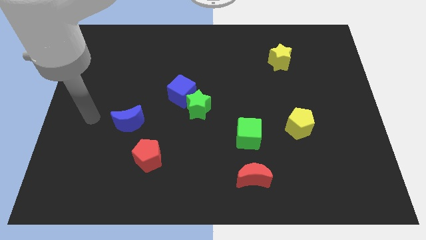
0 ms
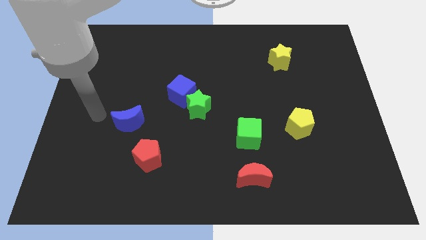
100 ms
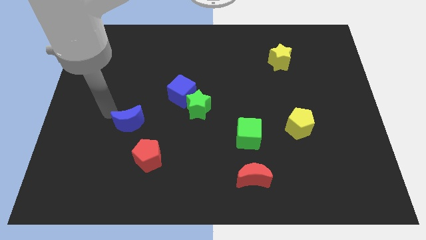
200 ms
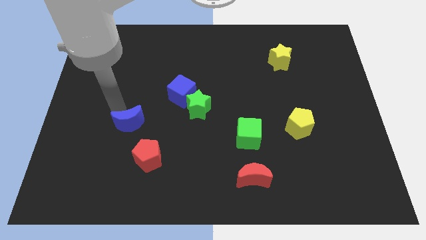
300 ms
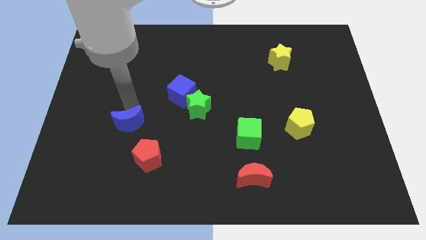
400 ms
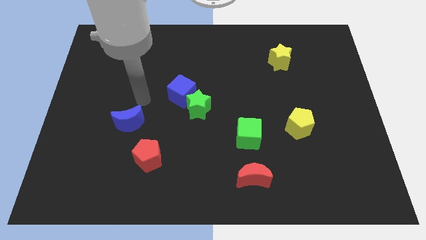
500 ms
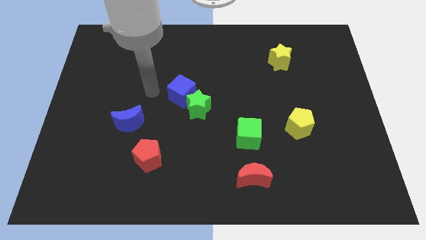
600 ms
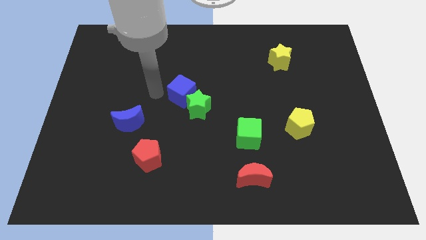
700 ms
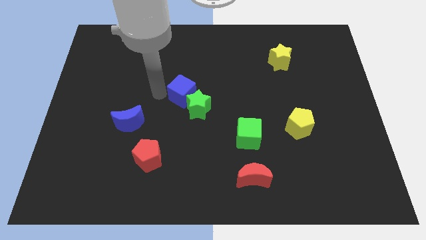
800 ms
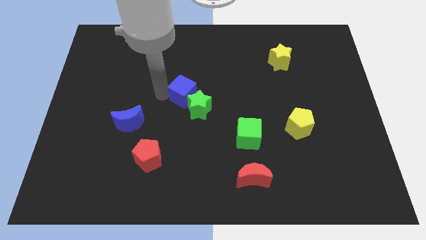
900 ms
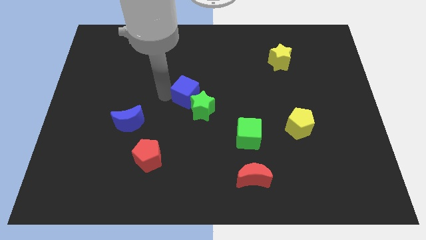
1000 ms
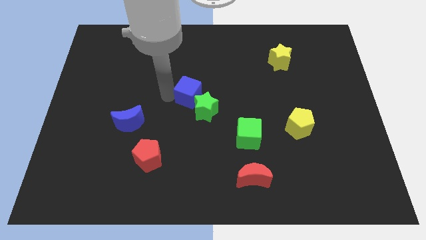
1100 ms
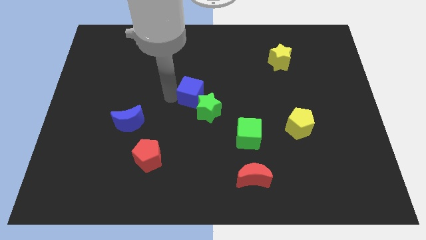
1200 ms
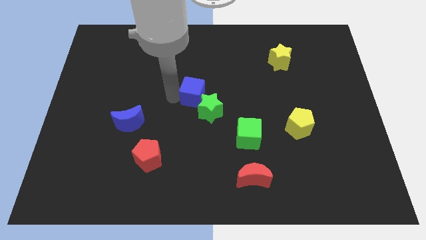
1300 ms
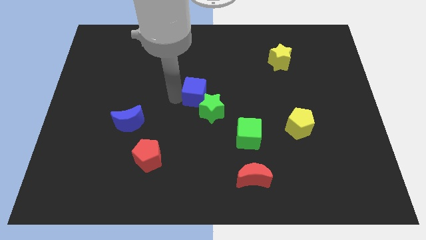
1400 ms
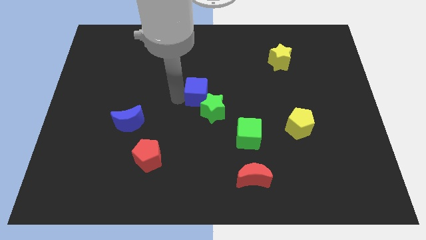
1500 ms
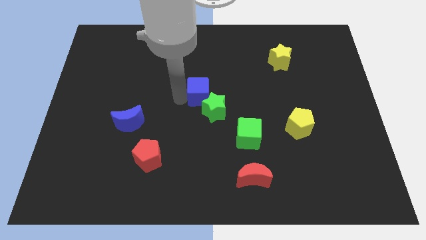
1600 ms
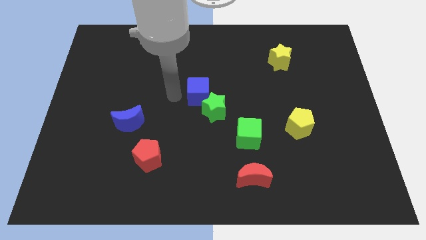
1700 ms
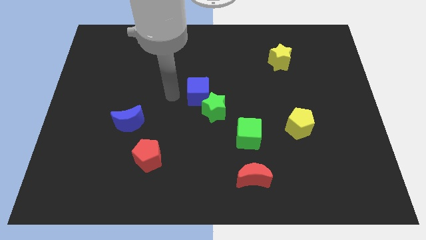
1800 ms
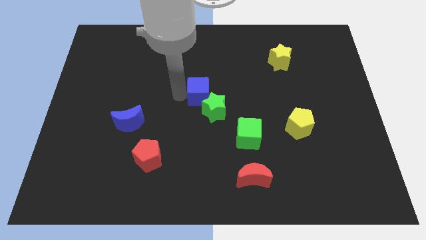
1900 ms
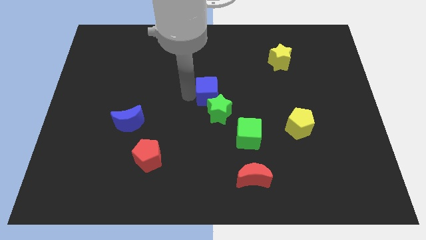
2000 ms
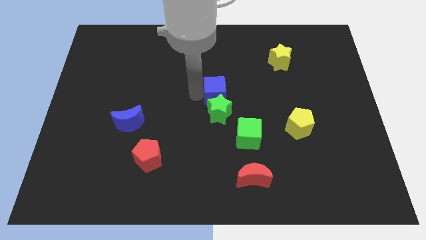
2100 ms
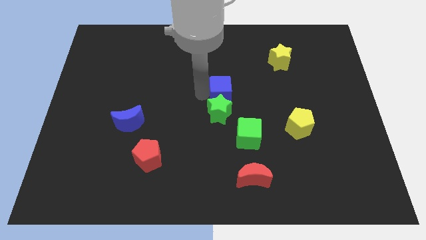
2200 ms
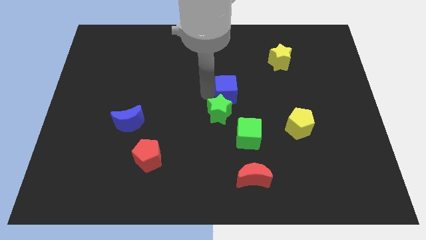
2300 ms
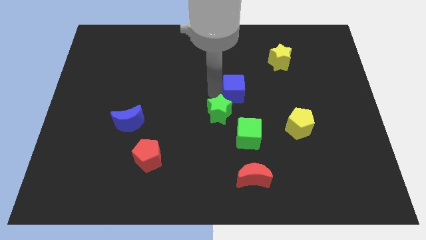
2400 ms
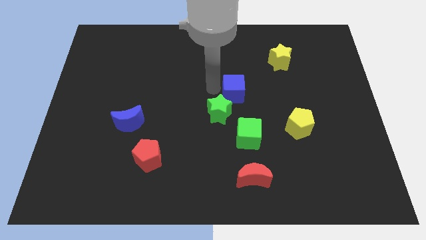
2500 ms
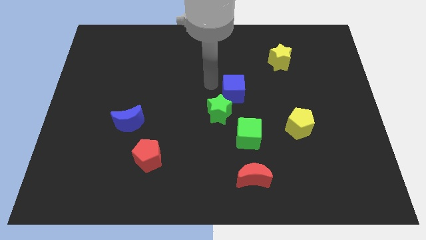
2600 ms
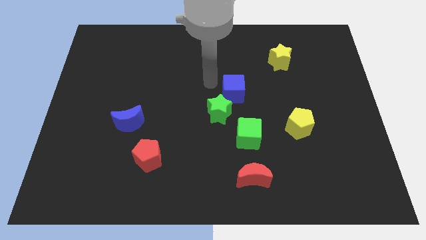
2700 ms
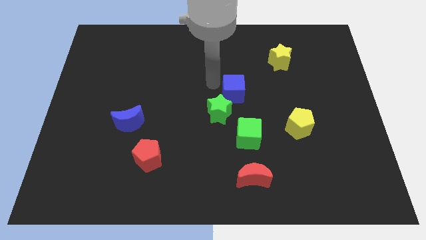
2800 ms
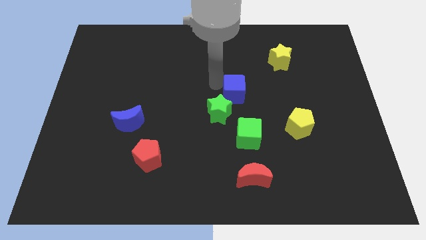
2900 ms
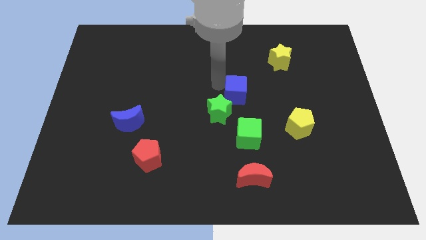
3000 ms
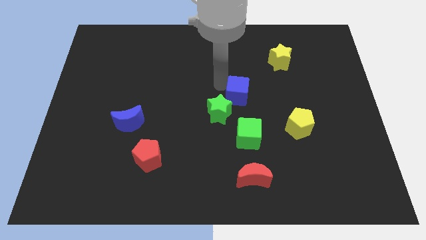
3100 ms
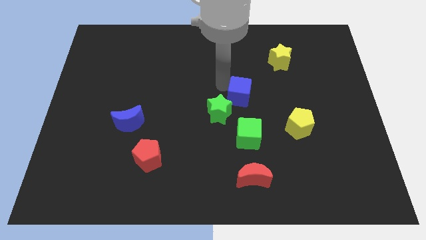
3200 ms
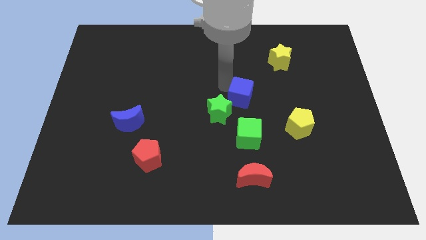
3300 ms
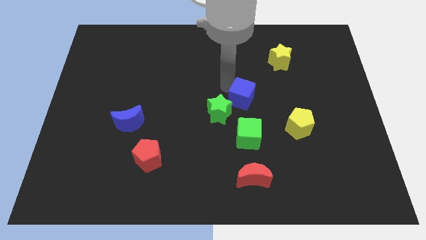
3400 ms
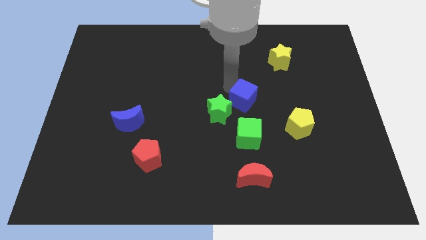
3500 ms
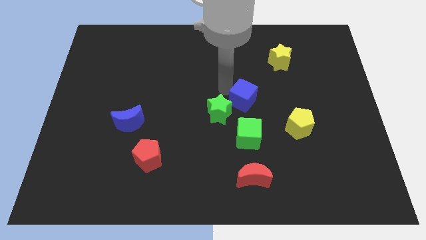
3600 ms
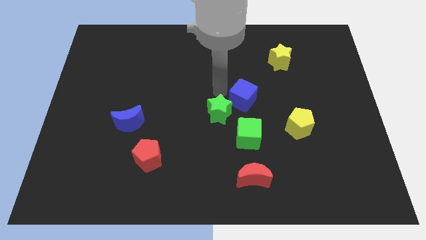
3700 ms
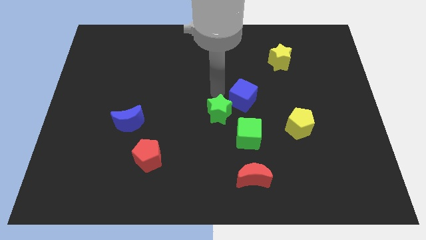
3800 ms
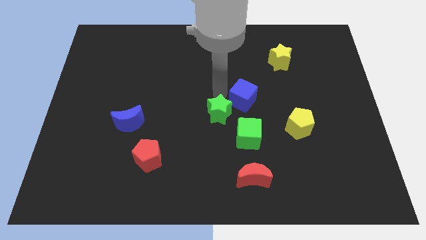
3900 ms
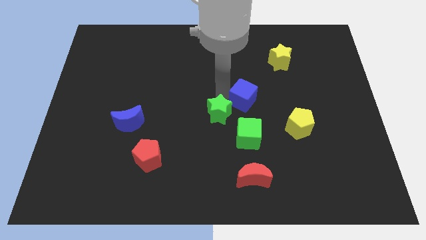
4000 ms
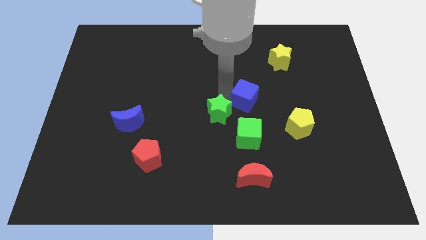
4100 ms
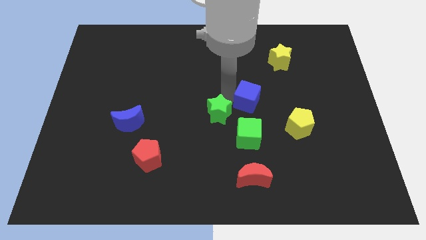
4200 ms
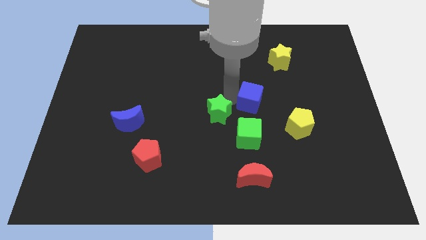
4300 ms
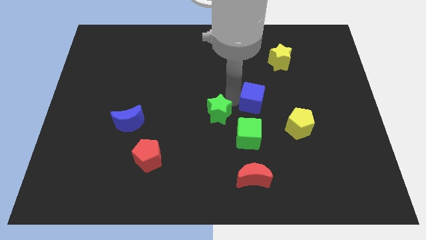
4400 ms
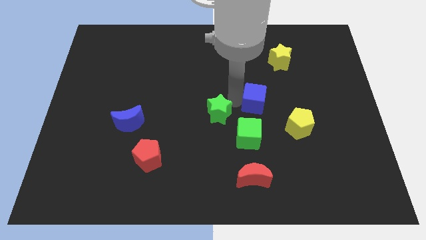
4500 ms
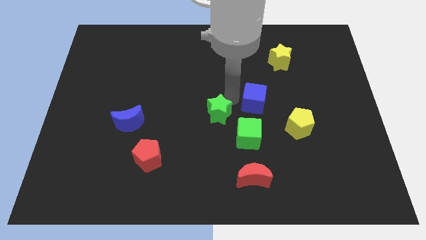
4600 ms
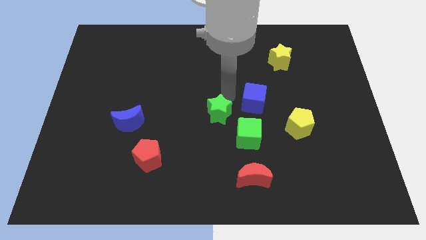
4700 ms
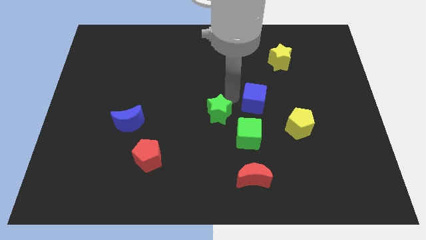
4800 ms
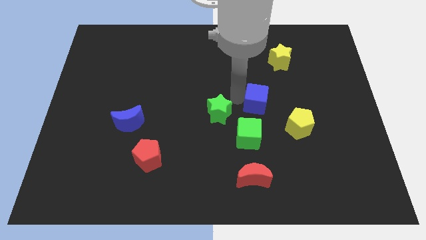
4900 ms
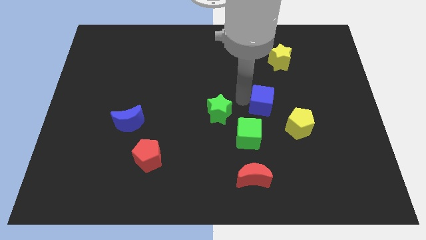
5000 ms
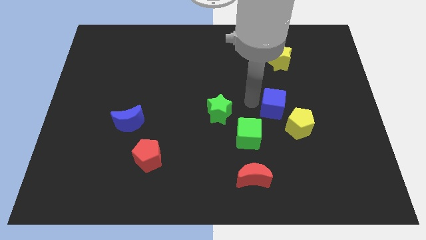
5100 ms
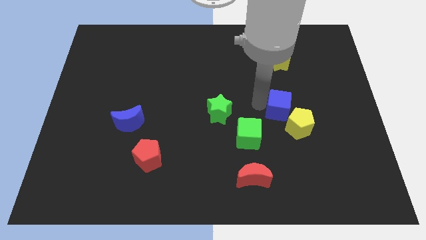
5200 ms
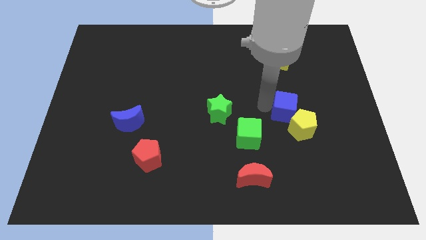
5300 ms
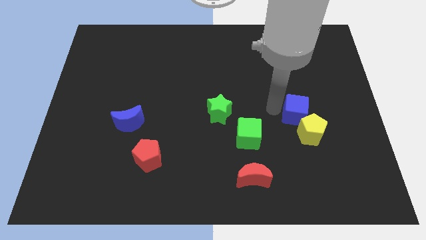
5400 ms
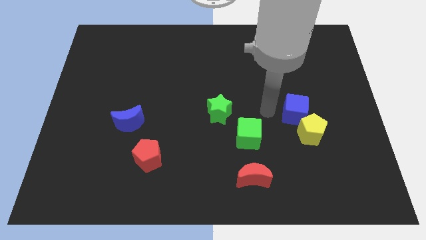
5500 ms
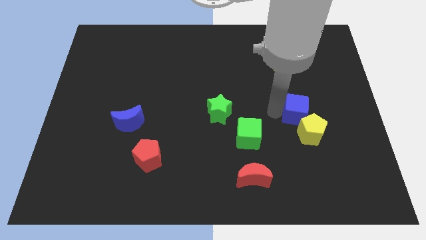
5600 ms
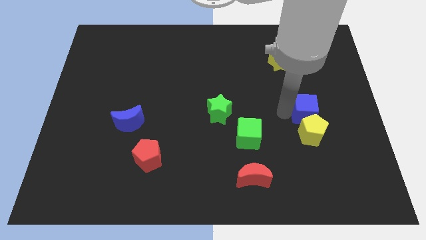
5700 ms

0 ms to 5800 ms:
put the blue cube to the top right side of the yellow pentagon

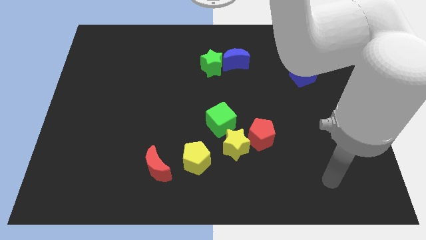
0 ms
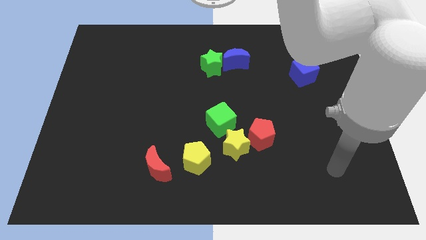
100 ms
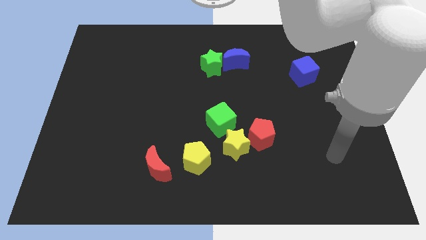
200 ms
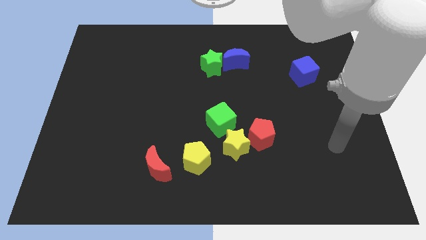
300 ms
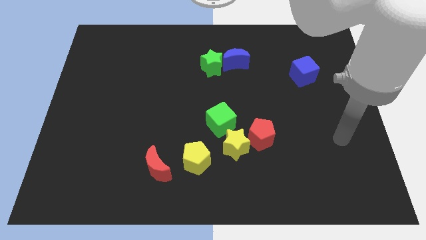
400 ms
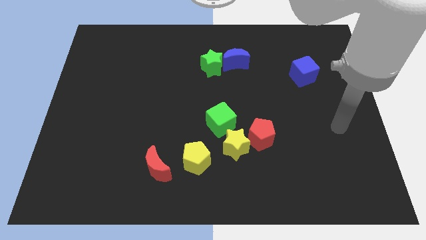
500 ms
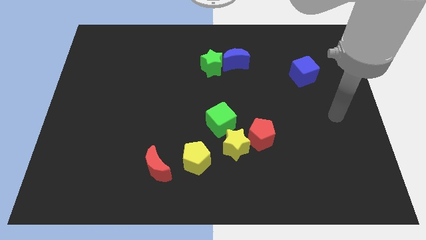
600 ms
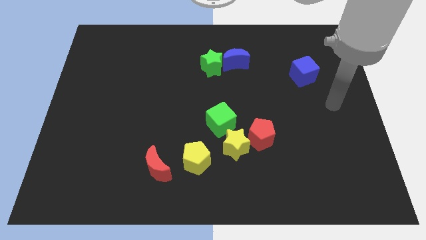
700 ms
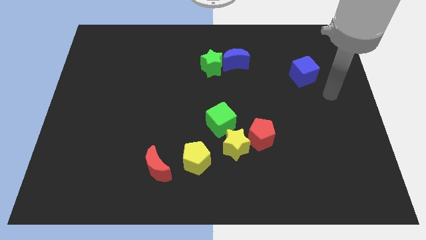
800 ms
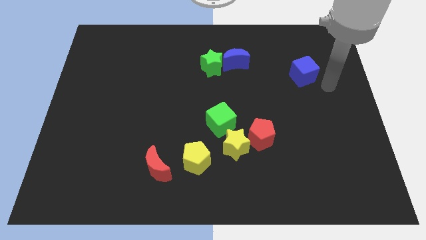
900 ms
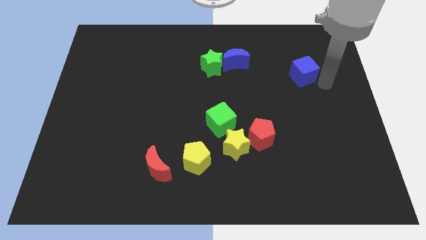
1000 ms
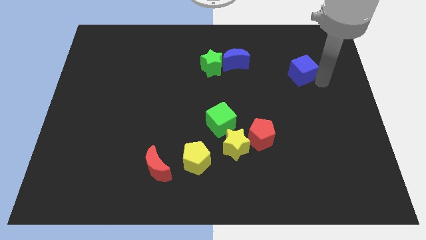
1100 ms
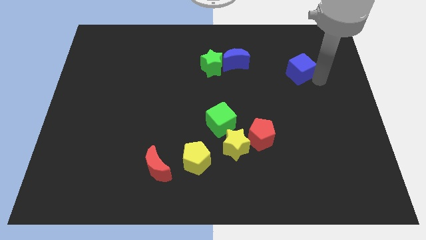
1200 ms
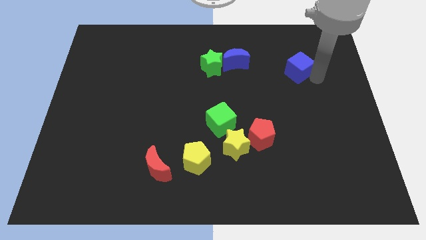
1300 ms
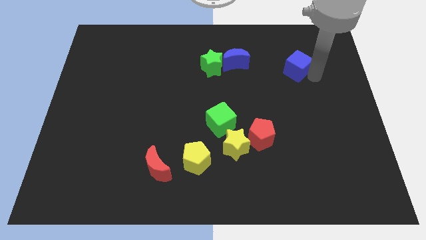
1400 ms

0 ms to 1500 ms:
put the blue cube just right of the blue moon

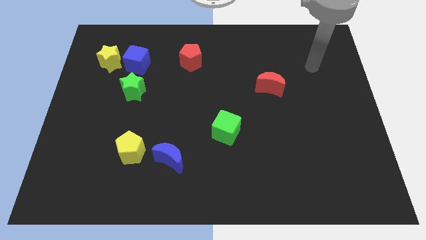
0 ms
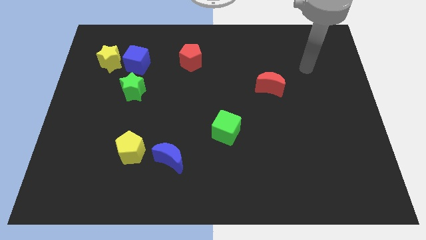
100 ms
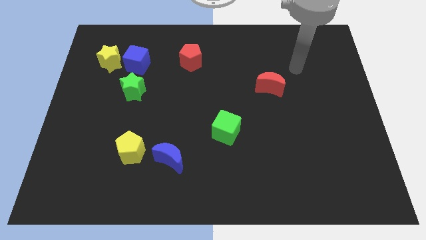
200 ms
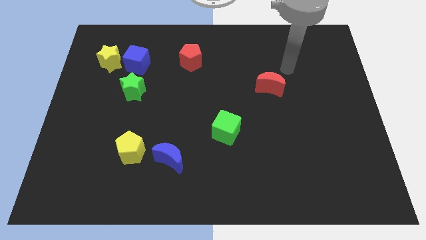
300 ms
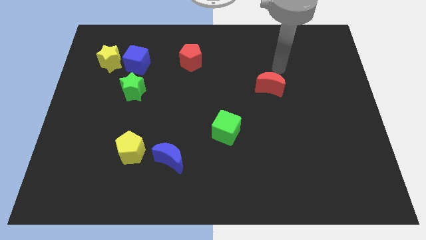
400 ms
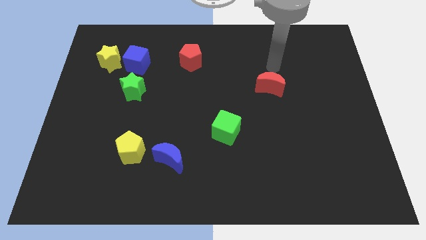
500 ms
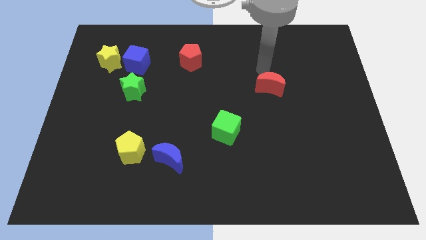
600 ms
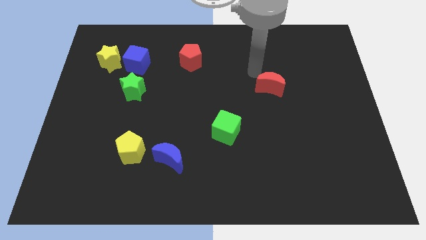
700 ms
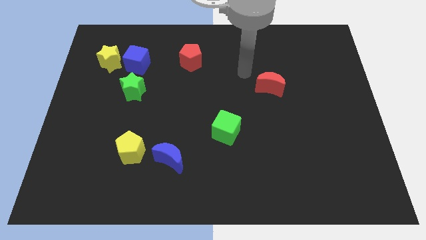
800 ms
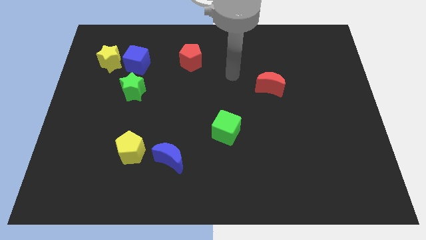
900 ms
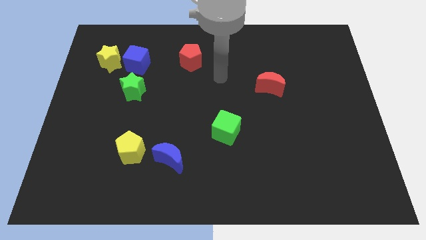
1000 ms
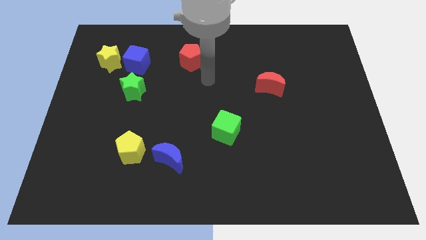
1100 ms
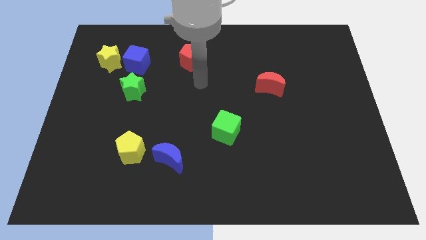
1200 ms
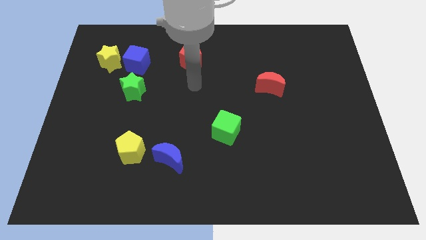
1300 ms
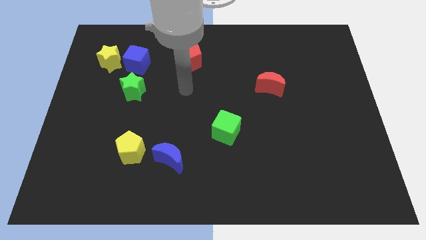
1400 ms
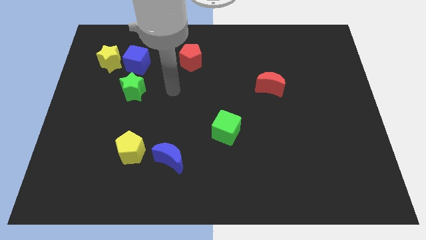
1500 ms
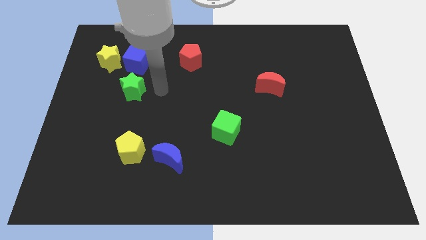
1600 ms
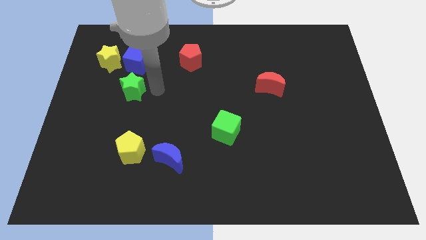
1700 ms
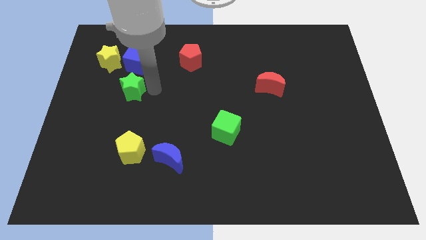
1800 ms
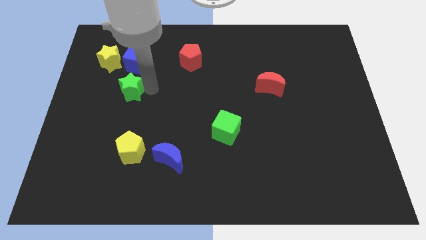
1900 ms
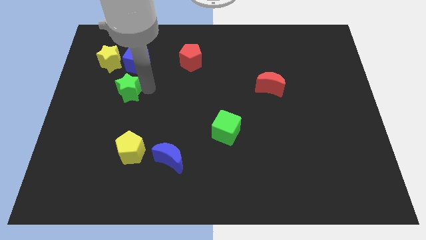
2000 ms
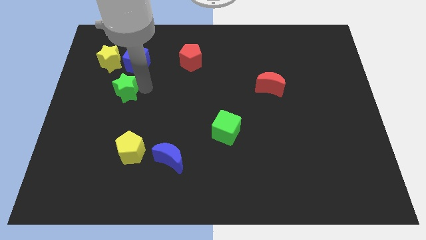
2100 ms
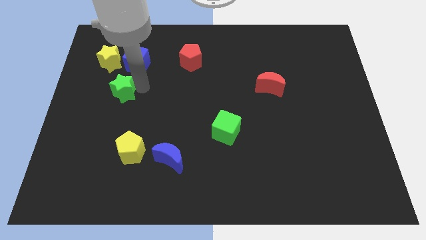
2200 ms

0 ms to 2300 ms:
slide the green star below the yellow star
